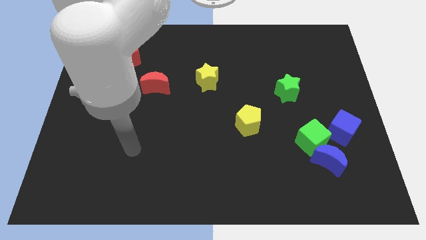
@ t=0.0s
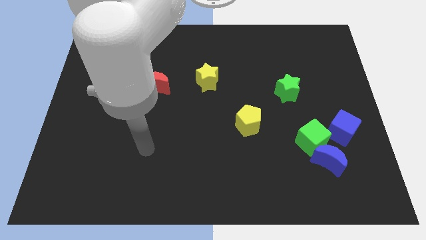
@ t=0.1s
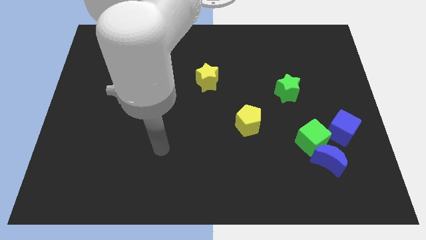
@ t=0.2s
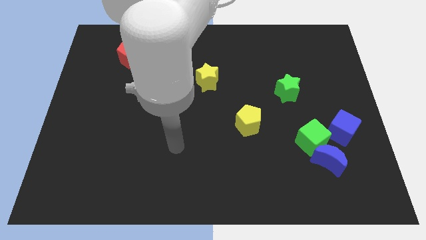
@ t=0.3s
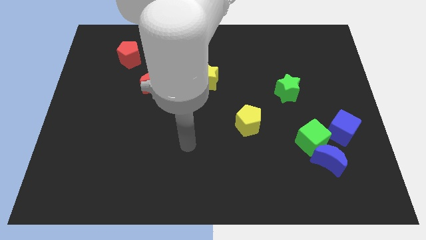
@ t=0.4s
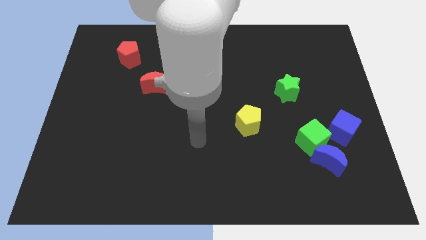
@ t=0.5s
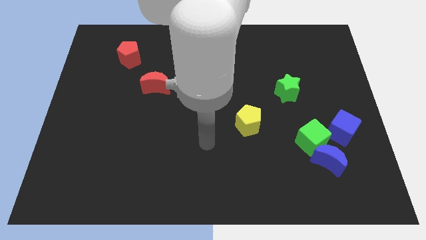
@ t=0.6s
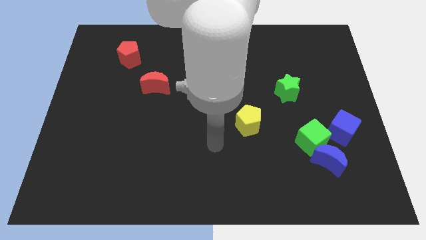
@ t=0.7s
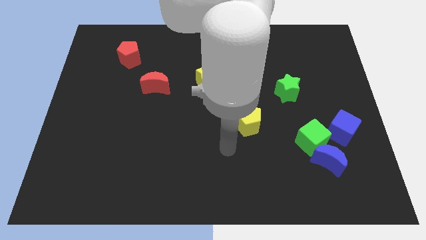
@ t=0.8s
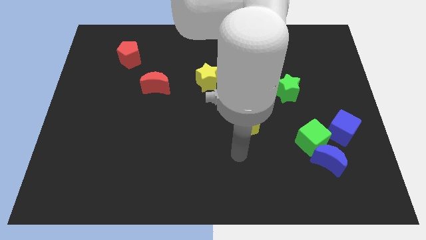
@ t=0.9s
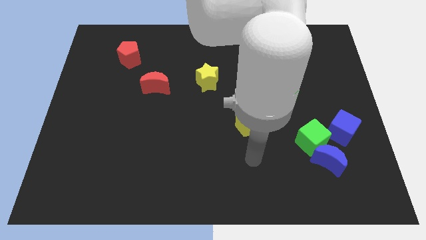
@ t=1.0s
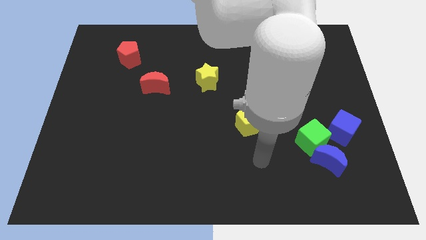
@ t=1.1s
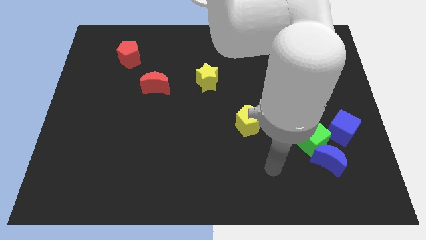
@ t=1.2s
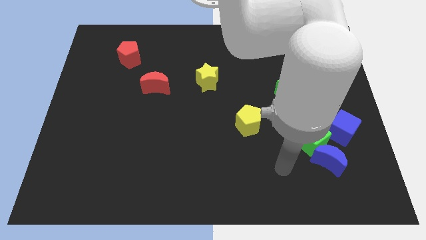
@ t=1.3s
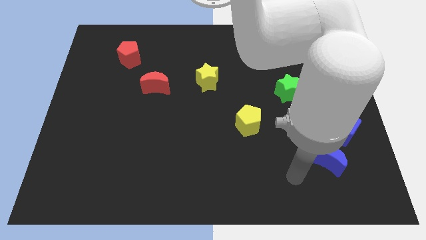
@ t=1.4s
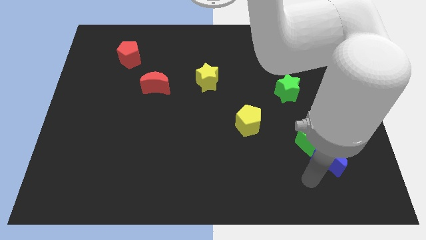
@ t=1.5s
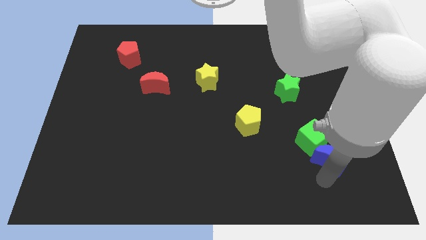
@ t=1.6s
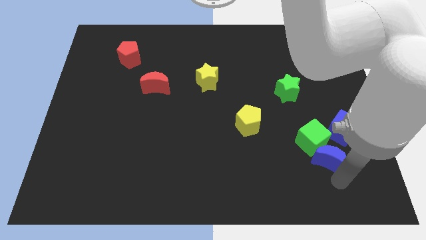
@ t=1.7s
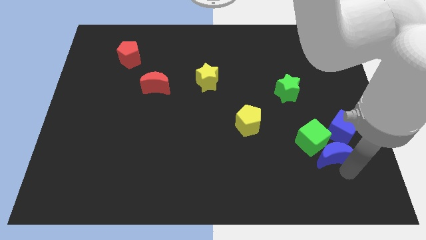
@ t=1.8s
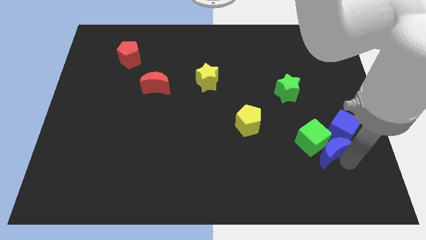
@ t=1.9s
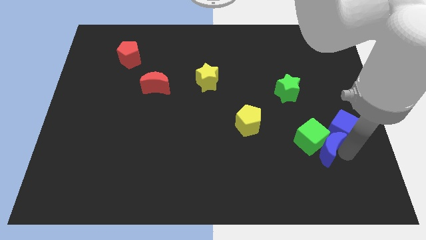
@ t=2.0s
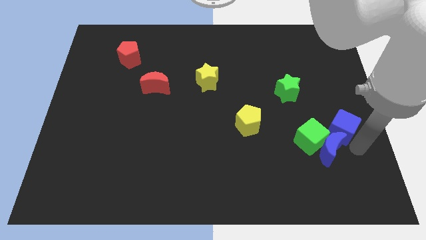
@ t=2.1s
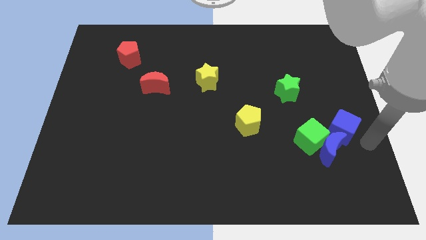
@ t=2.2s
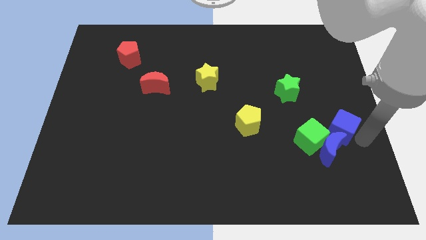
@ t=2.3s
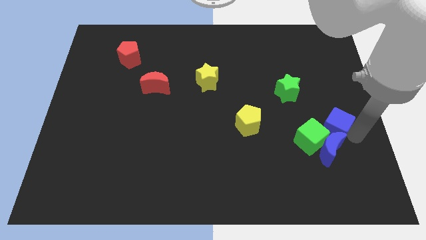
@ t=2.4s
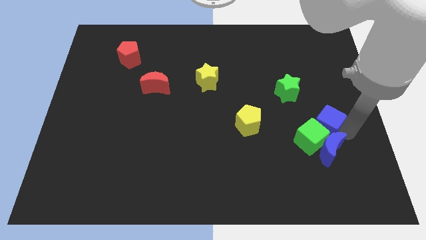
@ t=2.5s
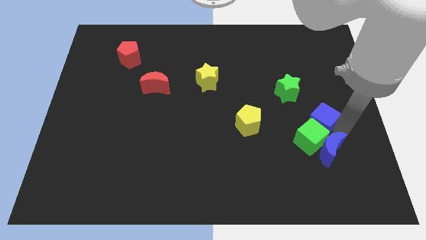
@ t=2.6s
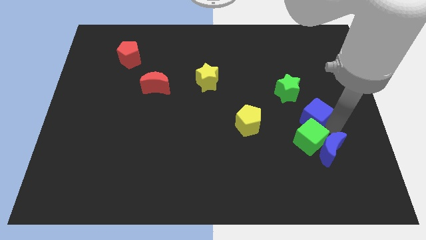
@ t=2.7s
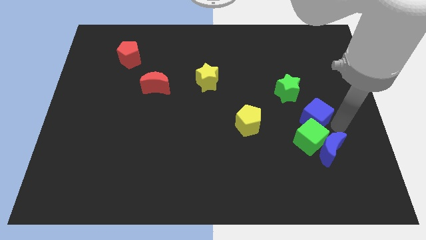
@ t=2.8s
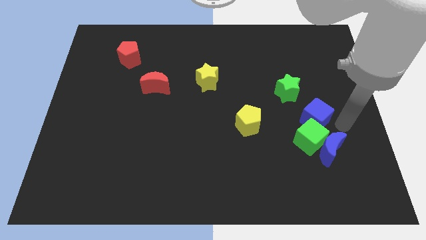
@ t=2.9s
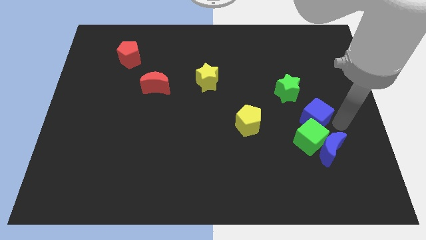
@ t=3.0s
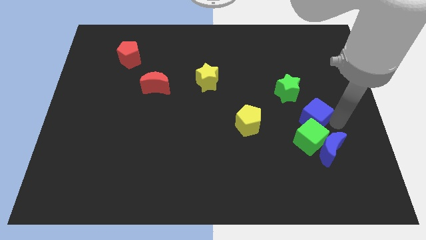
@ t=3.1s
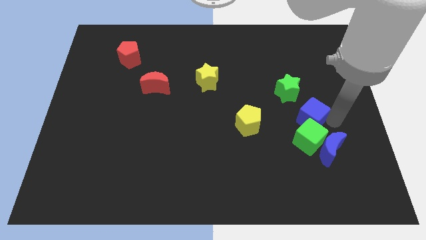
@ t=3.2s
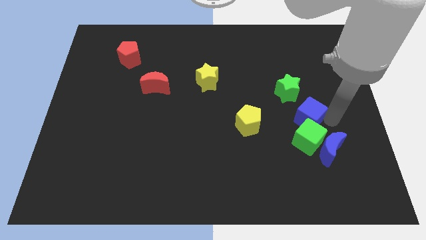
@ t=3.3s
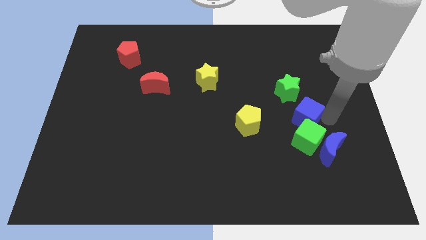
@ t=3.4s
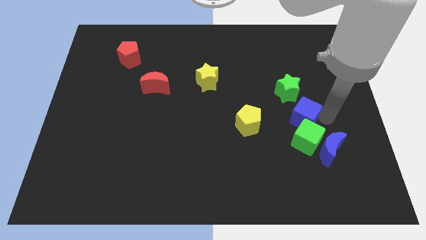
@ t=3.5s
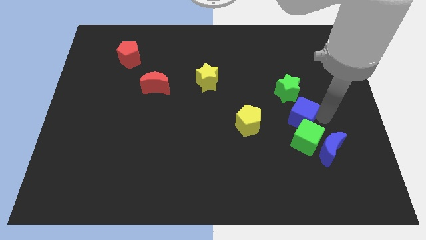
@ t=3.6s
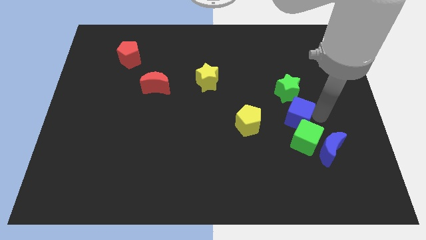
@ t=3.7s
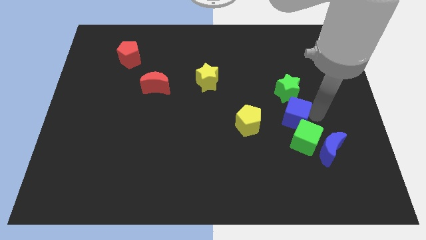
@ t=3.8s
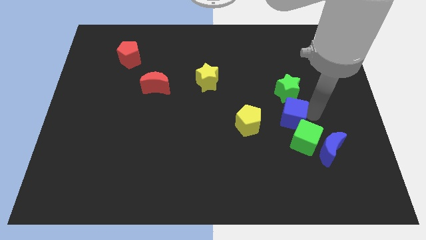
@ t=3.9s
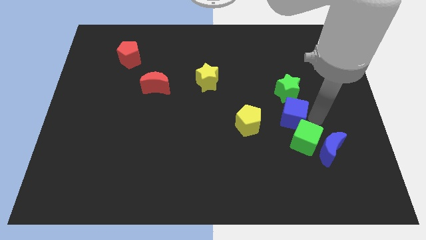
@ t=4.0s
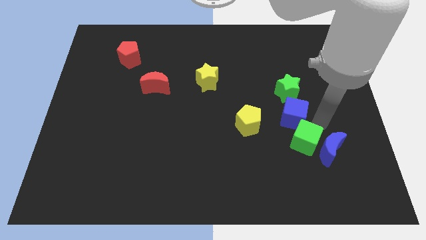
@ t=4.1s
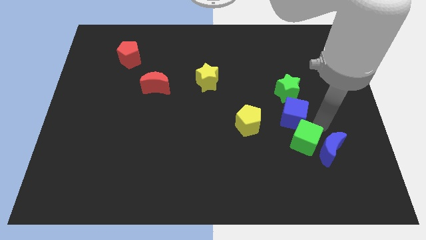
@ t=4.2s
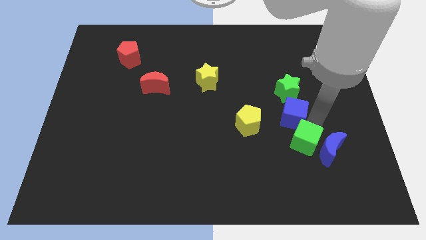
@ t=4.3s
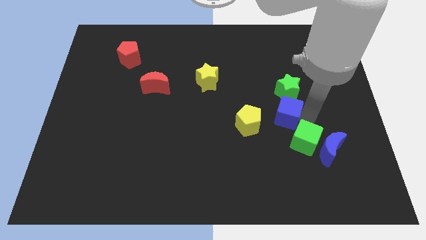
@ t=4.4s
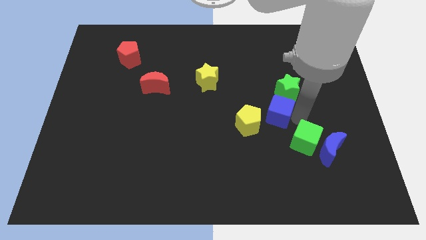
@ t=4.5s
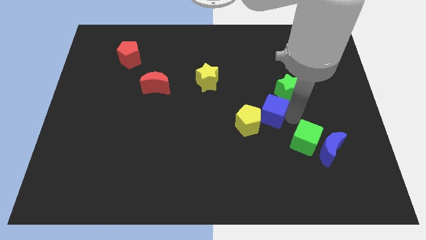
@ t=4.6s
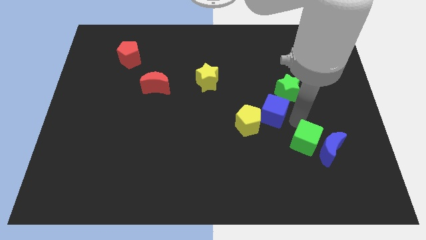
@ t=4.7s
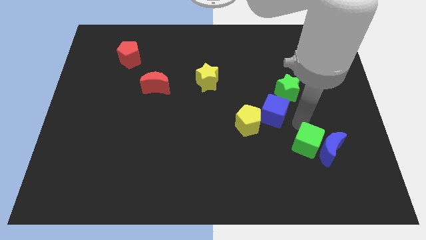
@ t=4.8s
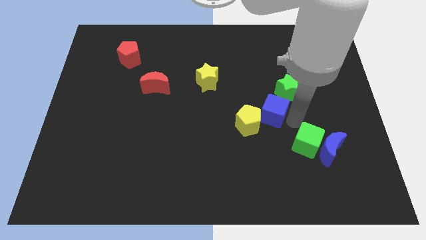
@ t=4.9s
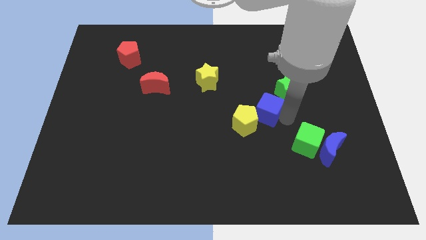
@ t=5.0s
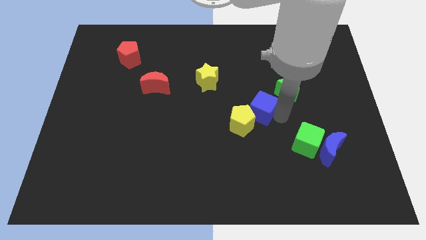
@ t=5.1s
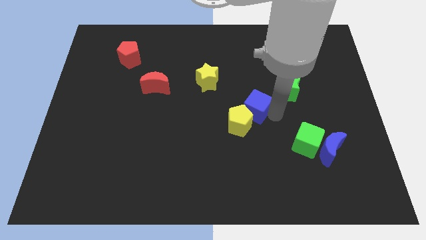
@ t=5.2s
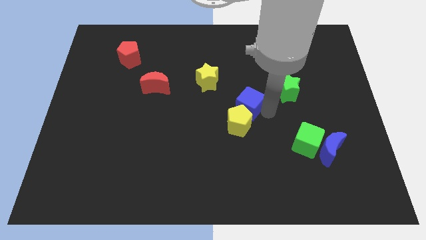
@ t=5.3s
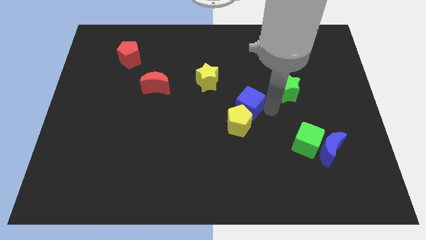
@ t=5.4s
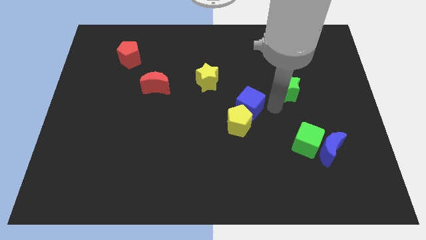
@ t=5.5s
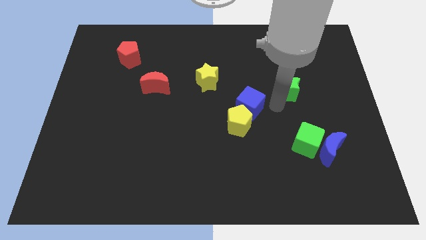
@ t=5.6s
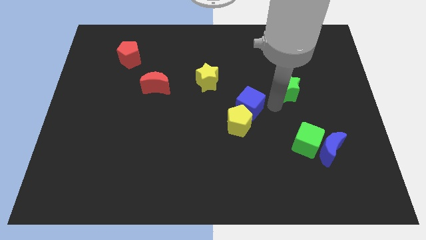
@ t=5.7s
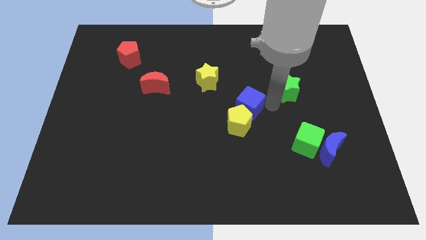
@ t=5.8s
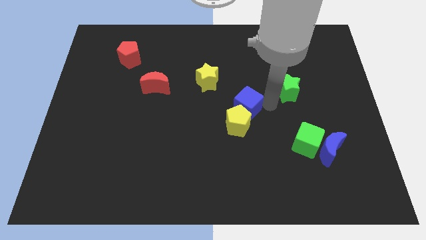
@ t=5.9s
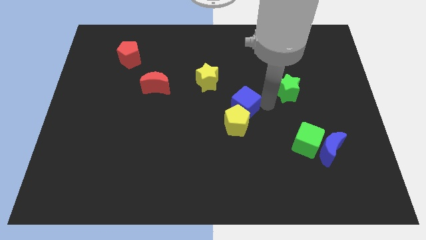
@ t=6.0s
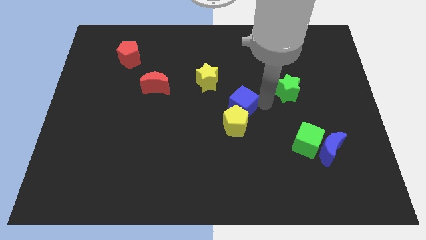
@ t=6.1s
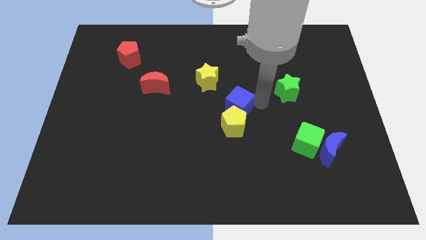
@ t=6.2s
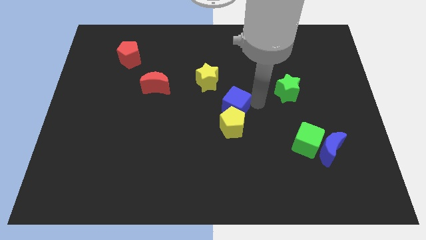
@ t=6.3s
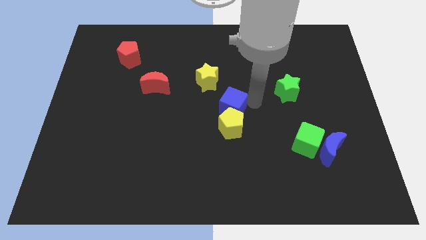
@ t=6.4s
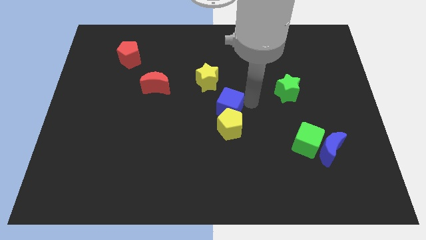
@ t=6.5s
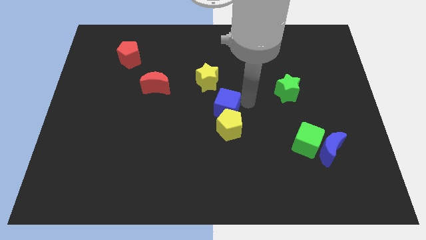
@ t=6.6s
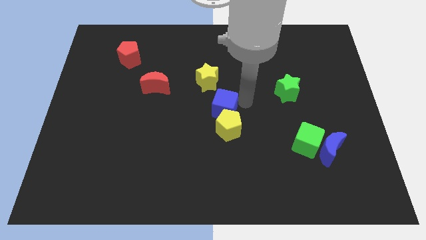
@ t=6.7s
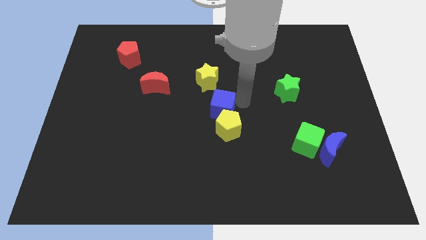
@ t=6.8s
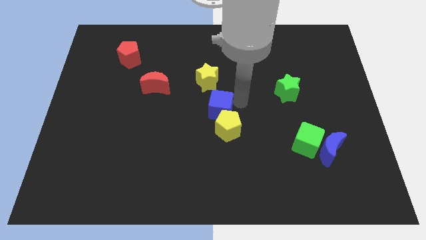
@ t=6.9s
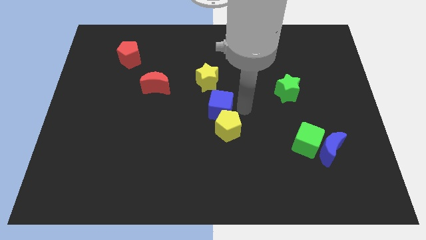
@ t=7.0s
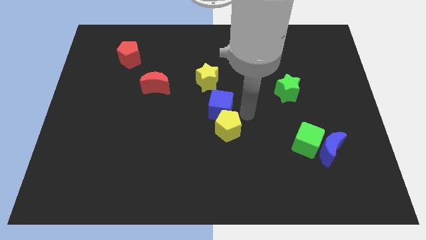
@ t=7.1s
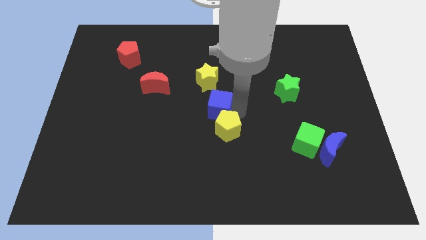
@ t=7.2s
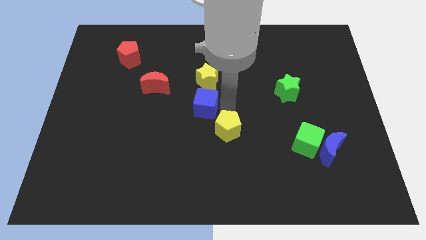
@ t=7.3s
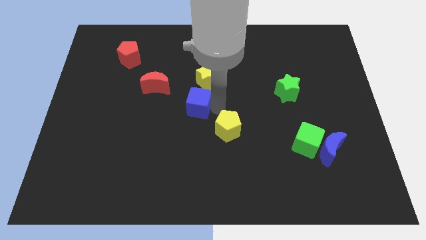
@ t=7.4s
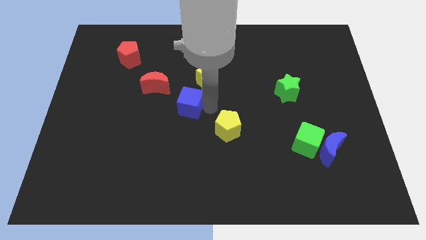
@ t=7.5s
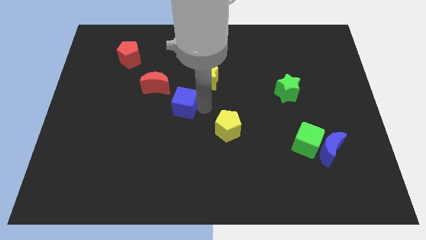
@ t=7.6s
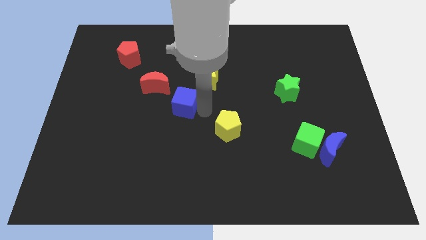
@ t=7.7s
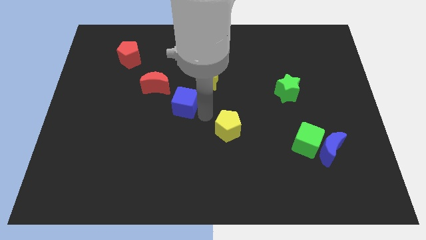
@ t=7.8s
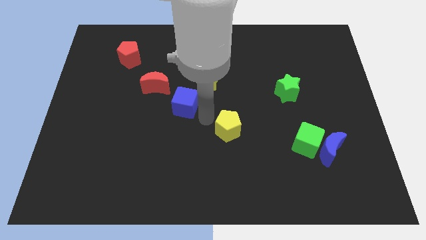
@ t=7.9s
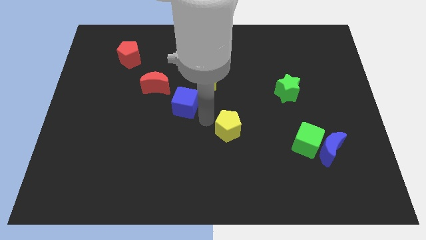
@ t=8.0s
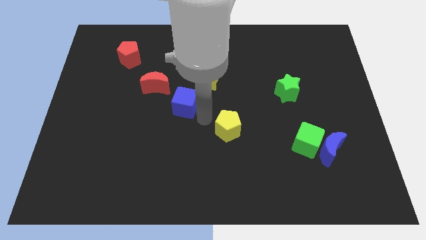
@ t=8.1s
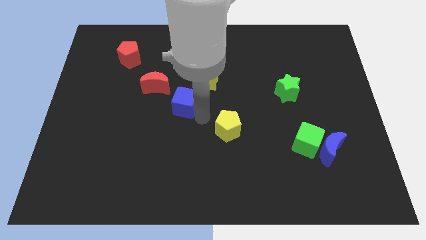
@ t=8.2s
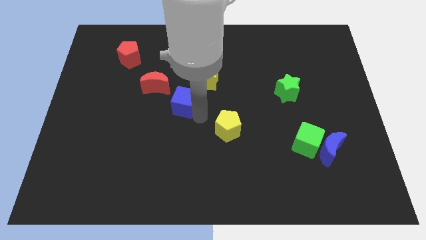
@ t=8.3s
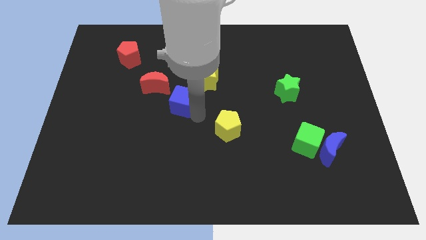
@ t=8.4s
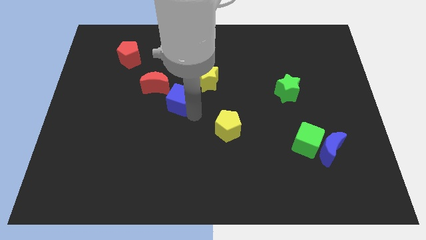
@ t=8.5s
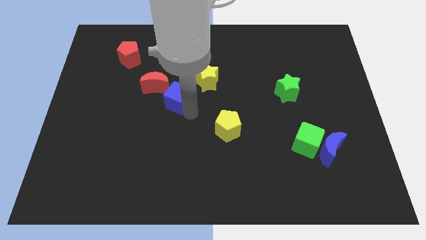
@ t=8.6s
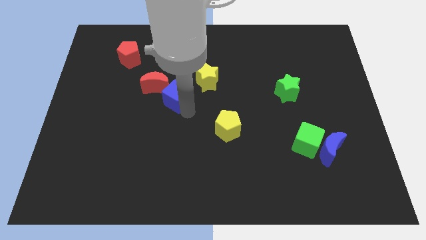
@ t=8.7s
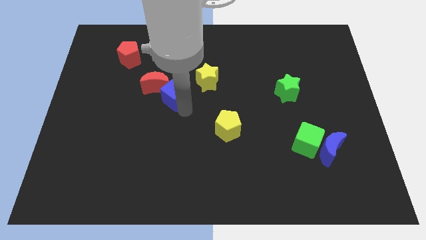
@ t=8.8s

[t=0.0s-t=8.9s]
move the blue cube towards the red moon
